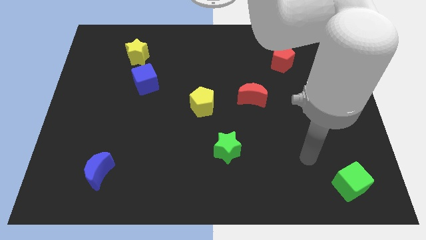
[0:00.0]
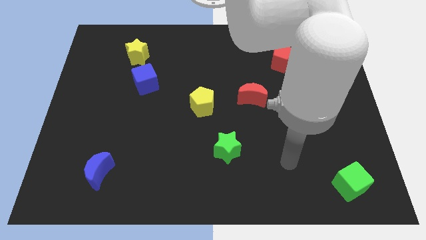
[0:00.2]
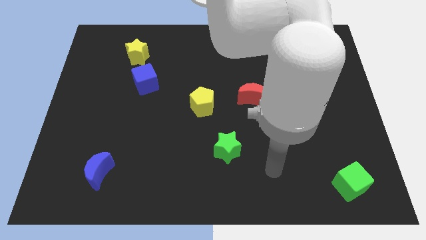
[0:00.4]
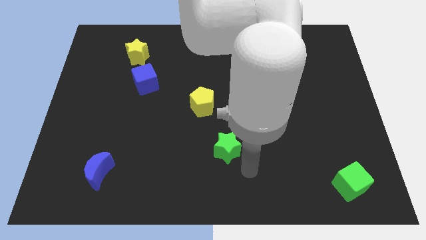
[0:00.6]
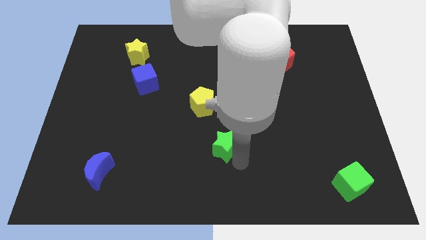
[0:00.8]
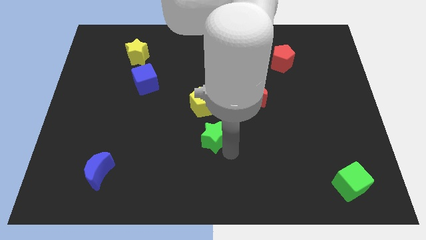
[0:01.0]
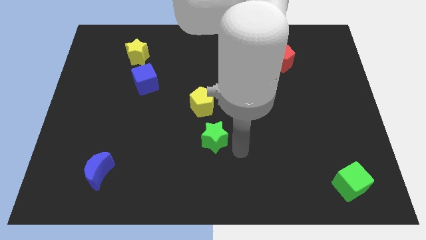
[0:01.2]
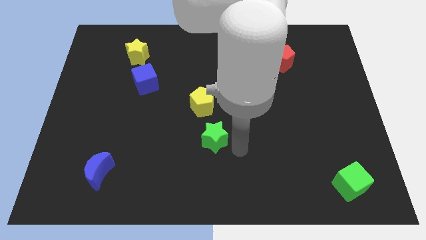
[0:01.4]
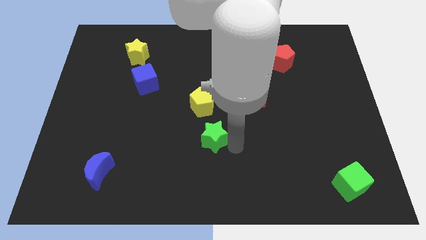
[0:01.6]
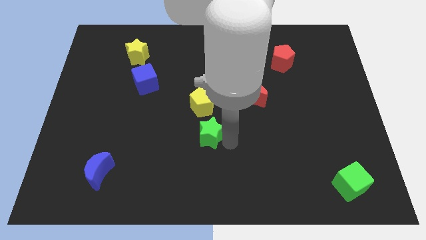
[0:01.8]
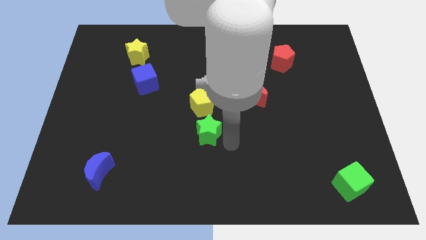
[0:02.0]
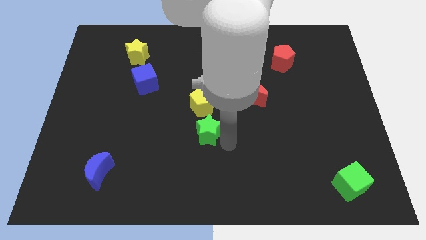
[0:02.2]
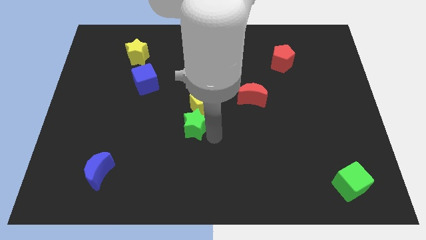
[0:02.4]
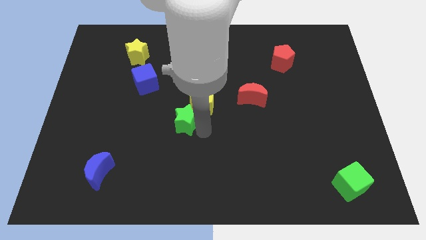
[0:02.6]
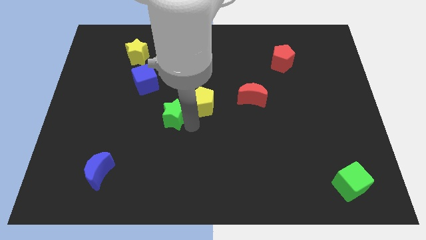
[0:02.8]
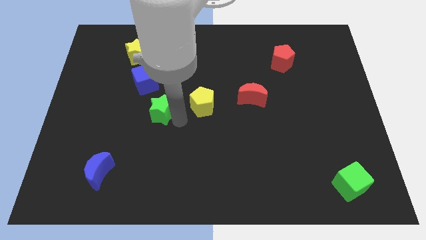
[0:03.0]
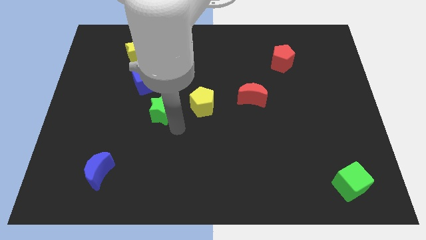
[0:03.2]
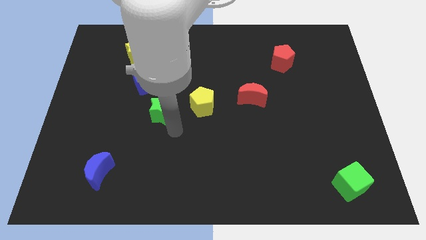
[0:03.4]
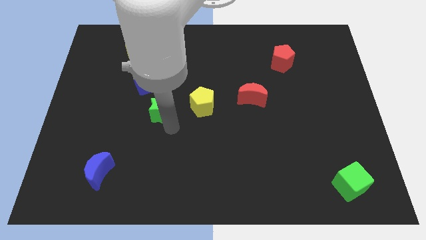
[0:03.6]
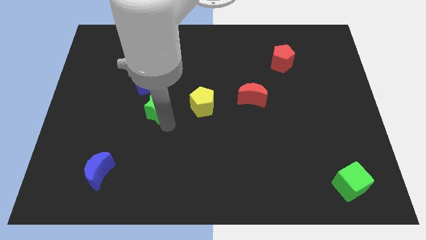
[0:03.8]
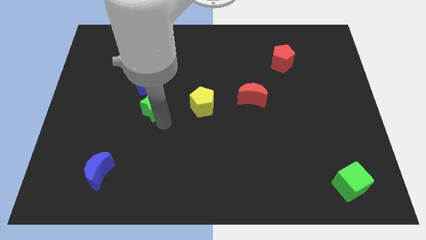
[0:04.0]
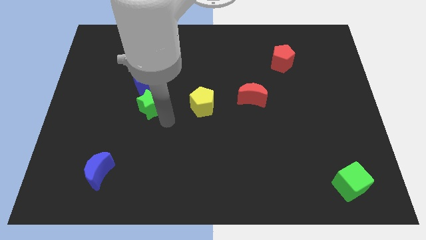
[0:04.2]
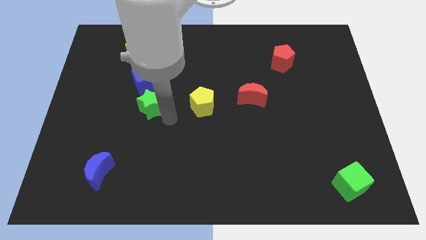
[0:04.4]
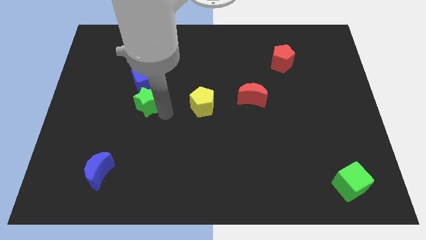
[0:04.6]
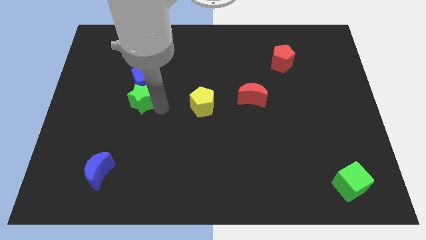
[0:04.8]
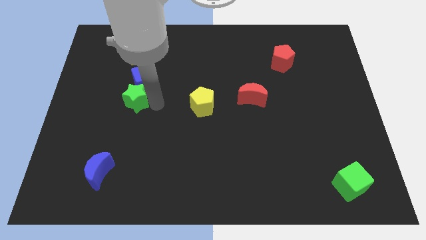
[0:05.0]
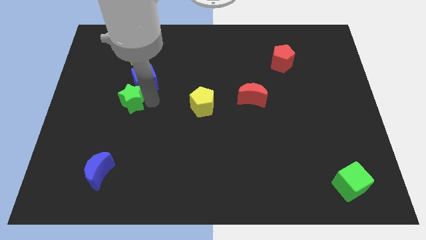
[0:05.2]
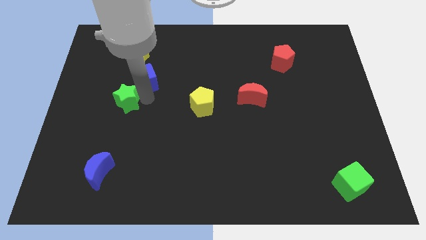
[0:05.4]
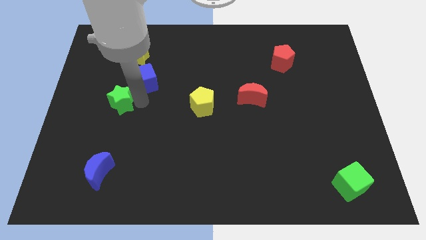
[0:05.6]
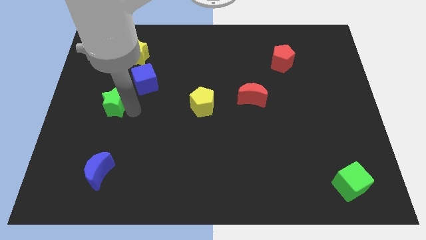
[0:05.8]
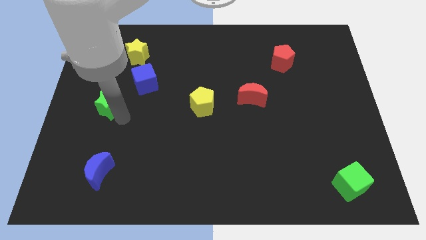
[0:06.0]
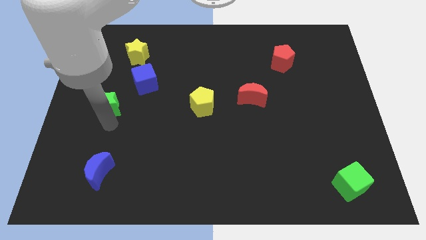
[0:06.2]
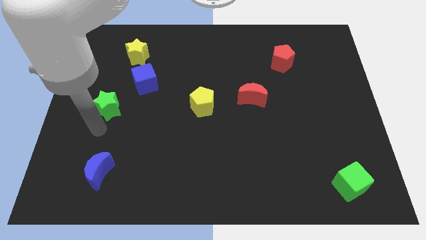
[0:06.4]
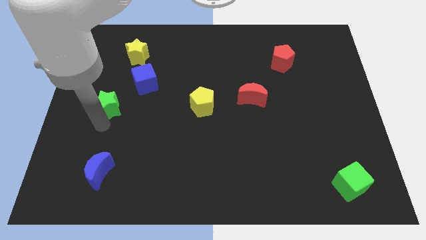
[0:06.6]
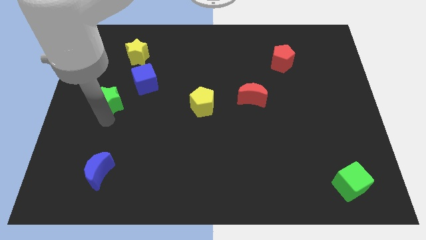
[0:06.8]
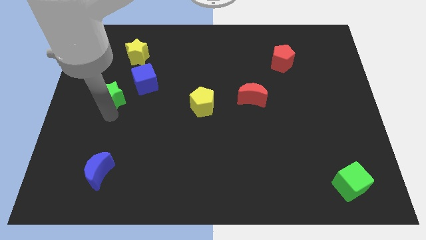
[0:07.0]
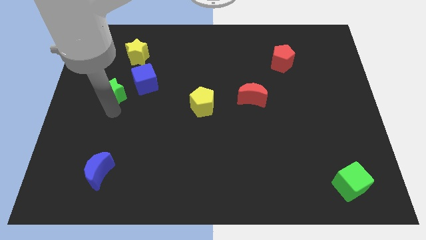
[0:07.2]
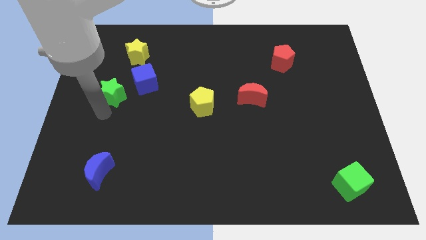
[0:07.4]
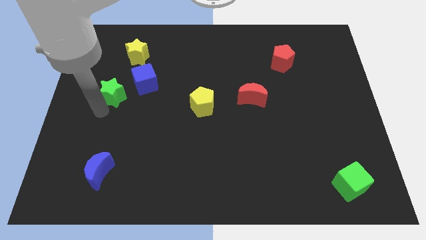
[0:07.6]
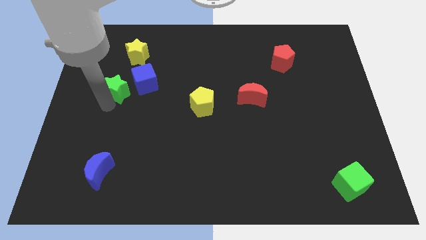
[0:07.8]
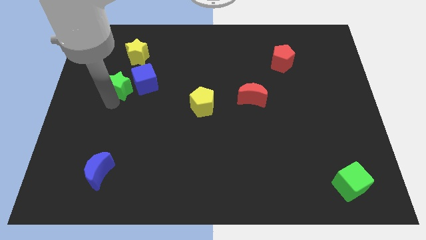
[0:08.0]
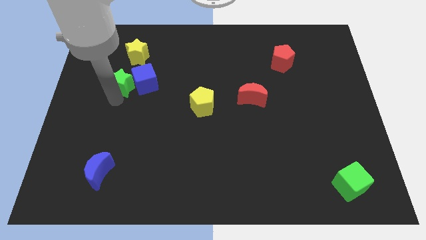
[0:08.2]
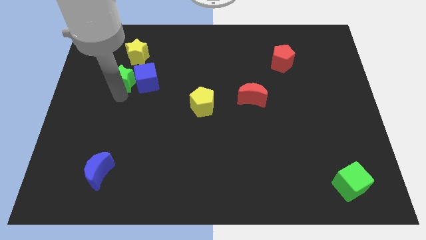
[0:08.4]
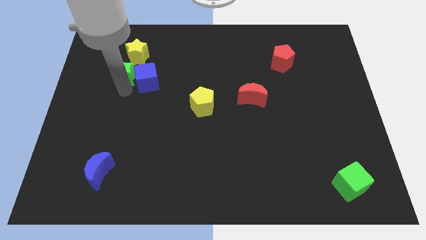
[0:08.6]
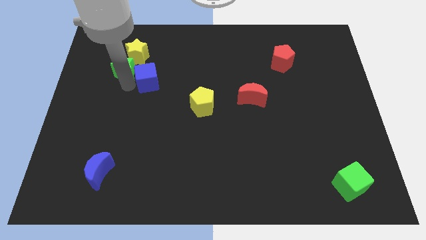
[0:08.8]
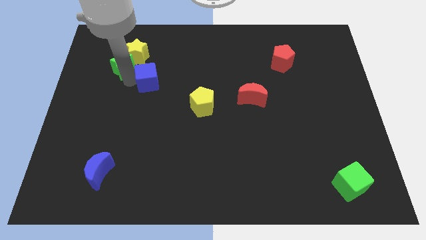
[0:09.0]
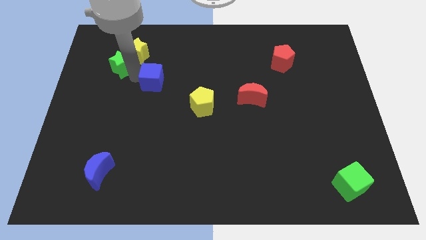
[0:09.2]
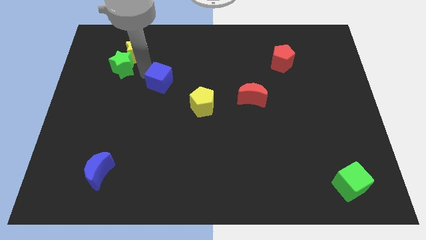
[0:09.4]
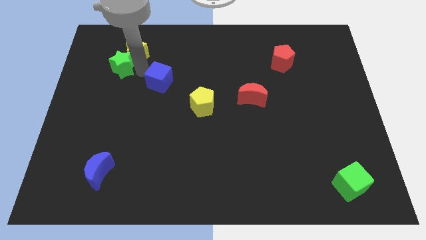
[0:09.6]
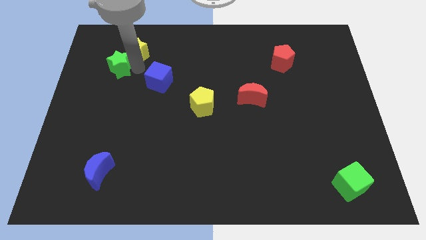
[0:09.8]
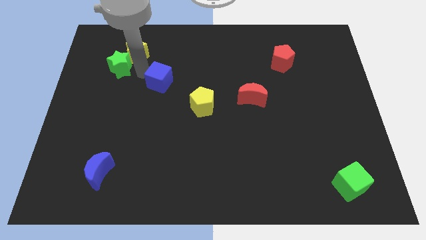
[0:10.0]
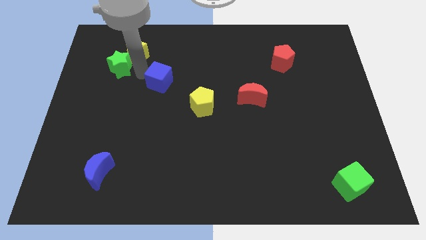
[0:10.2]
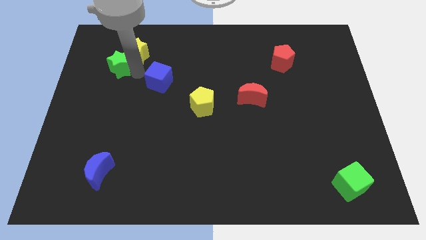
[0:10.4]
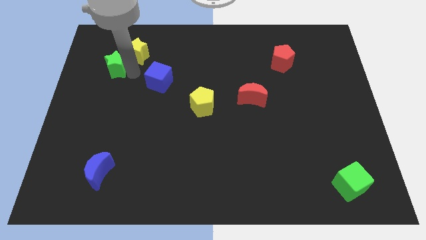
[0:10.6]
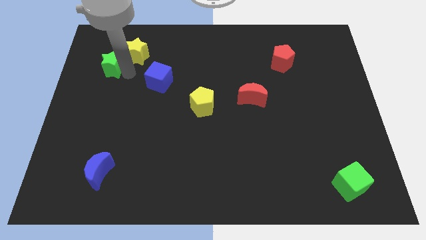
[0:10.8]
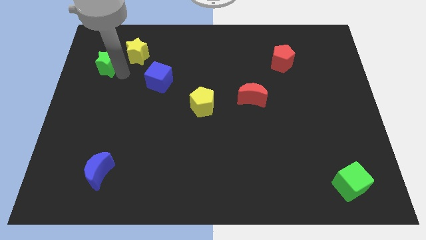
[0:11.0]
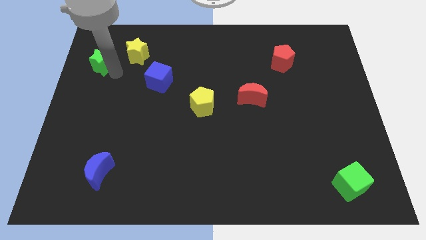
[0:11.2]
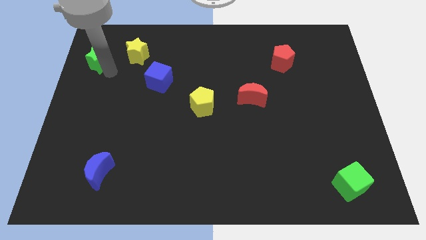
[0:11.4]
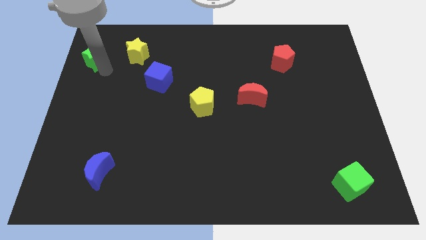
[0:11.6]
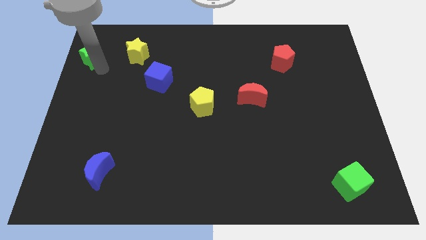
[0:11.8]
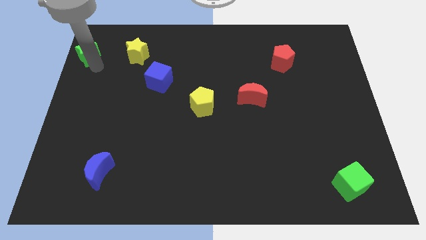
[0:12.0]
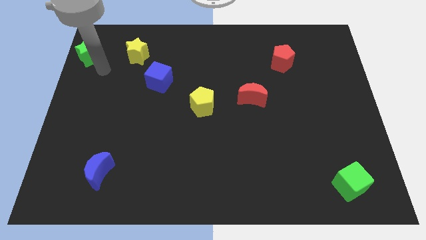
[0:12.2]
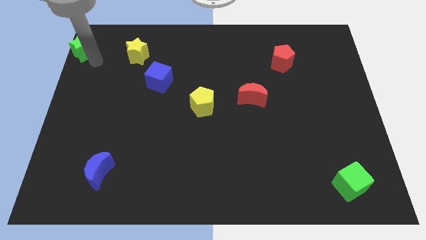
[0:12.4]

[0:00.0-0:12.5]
put the green star to the upper left corner

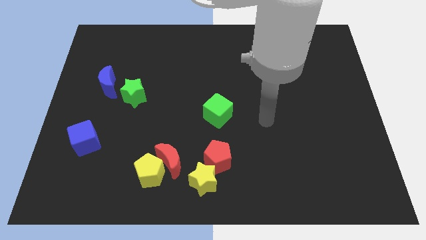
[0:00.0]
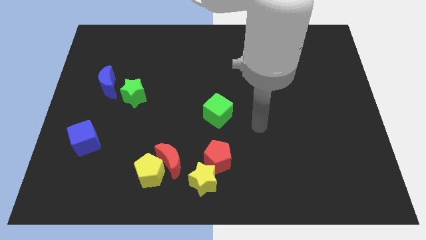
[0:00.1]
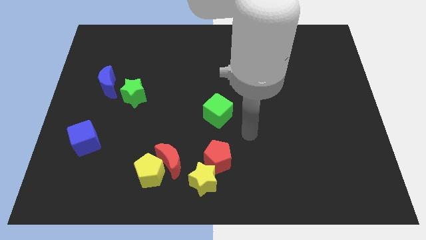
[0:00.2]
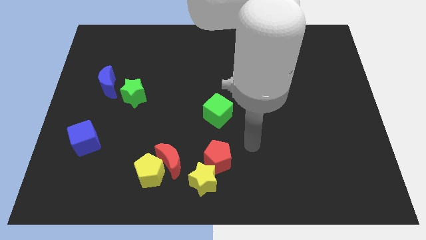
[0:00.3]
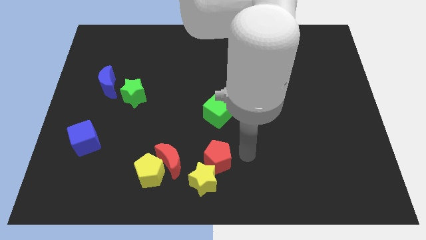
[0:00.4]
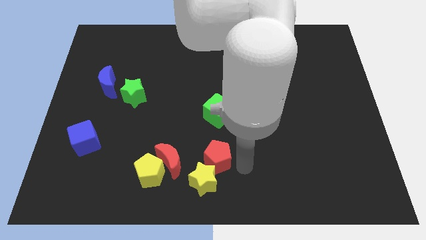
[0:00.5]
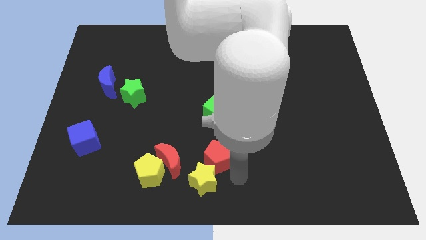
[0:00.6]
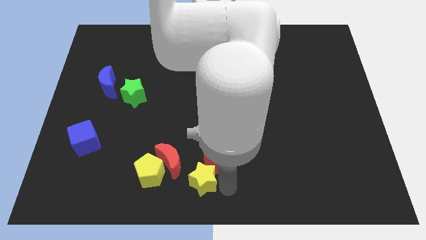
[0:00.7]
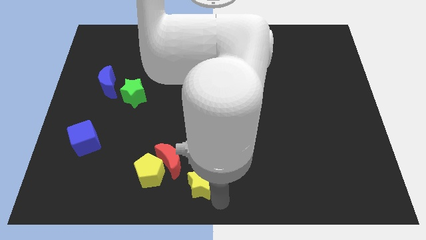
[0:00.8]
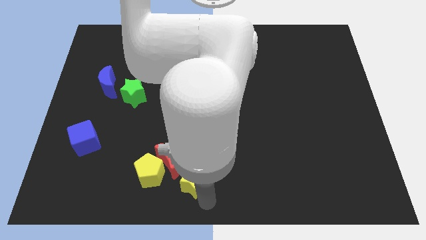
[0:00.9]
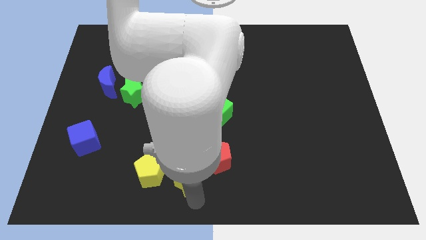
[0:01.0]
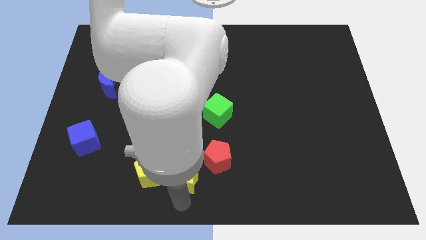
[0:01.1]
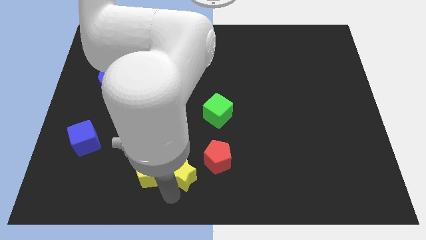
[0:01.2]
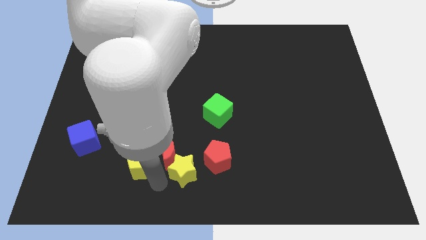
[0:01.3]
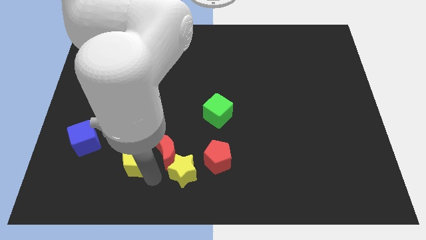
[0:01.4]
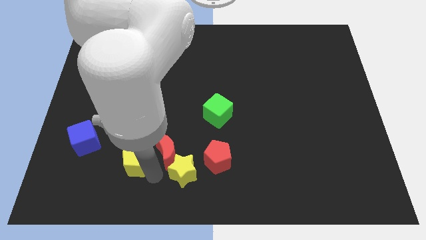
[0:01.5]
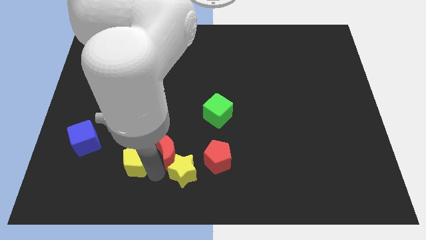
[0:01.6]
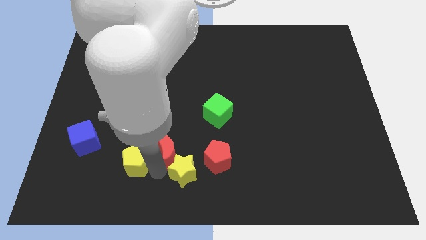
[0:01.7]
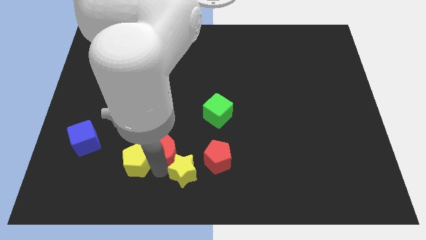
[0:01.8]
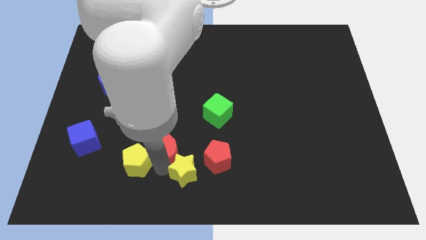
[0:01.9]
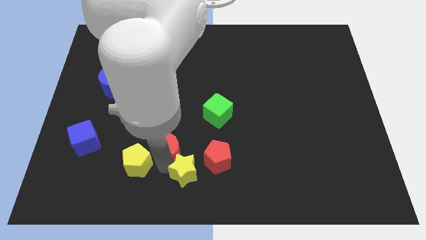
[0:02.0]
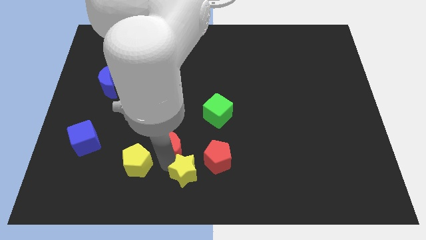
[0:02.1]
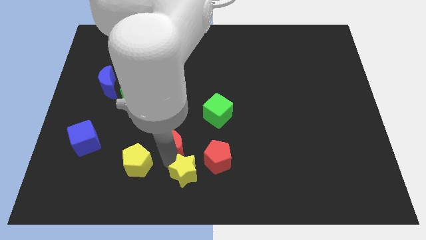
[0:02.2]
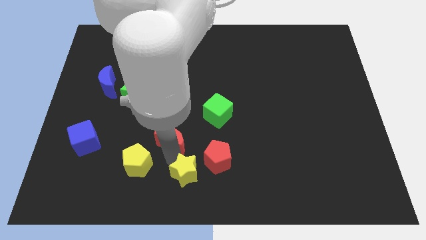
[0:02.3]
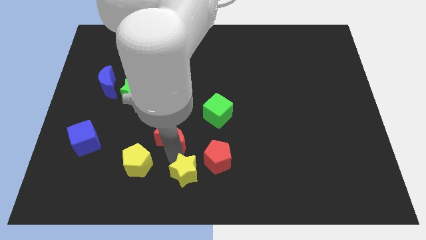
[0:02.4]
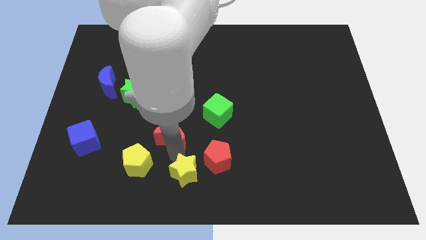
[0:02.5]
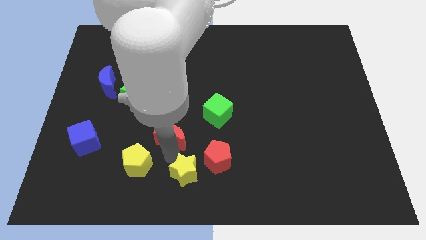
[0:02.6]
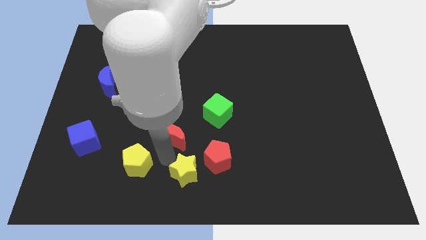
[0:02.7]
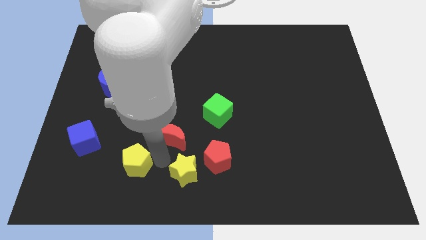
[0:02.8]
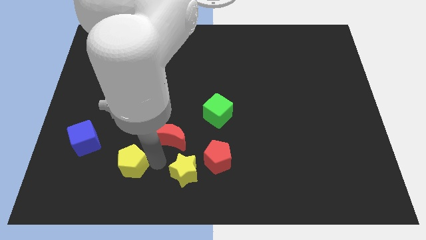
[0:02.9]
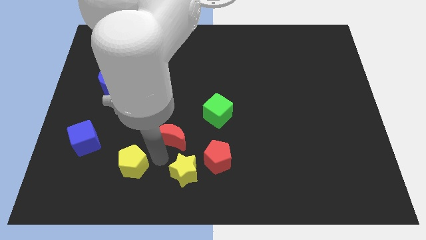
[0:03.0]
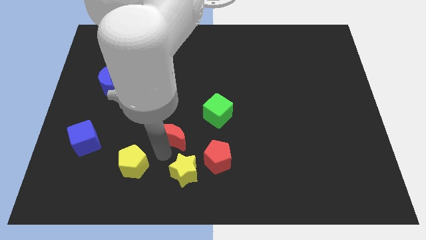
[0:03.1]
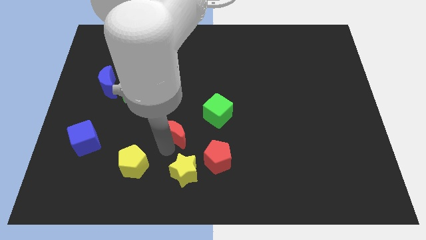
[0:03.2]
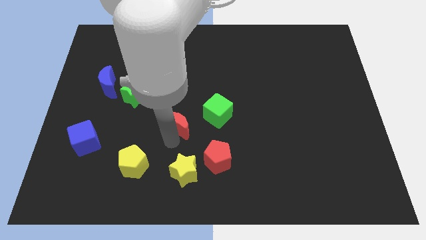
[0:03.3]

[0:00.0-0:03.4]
put the red moon to the center of the board
